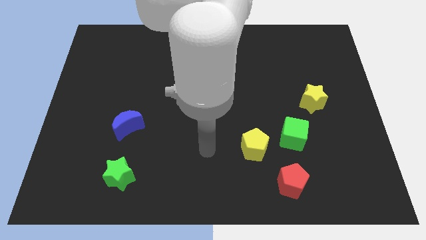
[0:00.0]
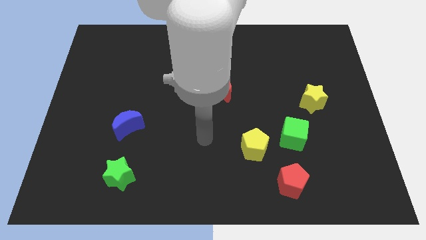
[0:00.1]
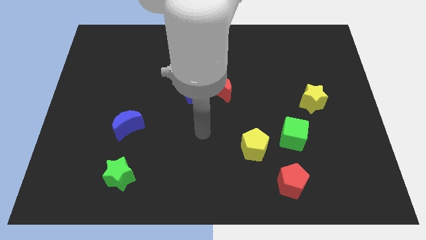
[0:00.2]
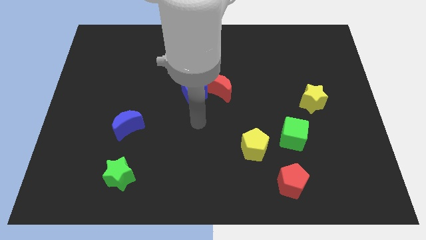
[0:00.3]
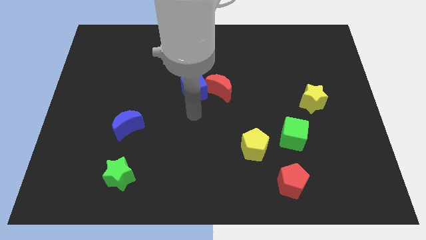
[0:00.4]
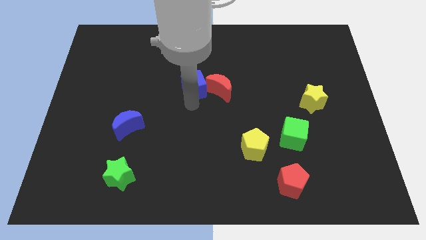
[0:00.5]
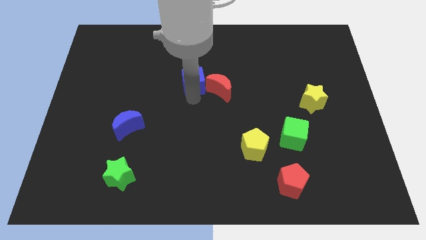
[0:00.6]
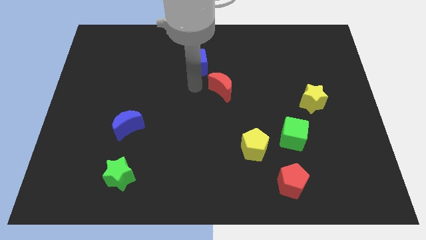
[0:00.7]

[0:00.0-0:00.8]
pull the red moon apart from the blue cube

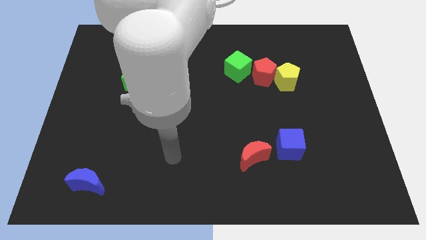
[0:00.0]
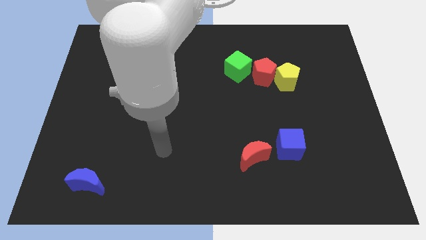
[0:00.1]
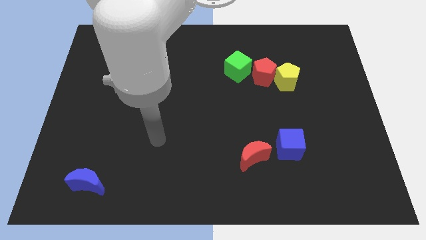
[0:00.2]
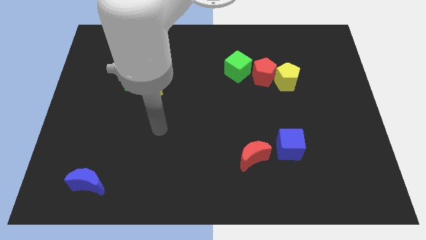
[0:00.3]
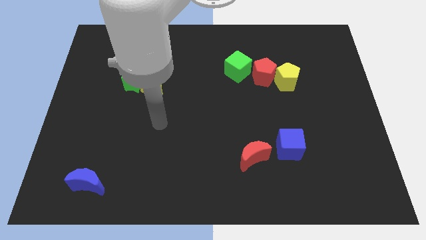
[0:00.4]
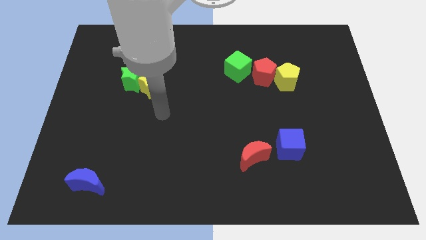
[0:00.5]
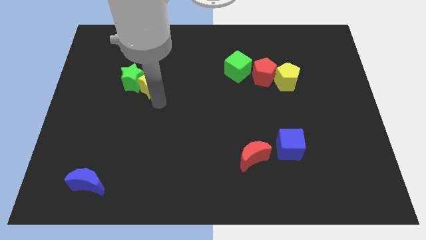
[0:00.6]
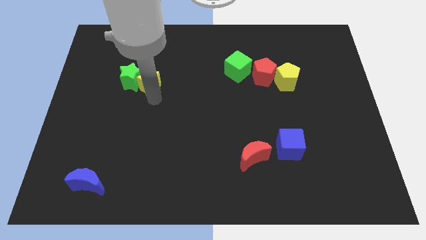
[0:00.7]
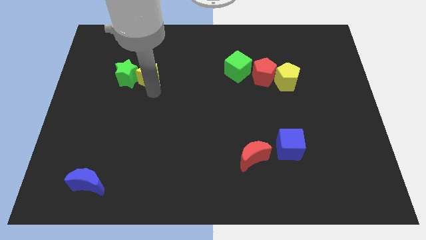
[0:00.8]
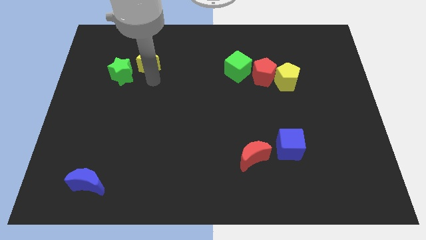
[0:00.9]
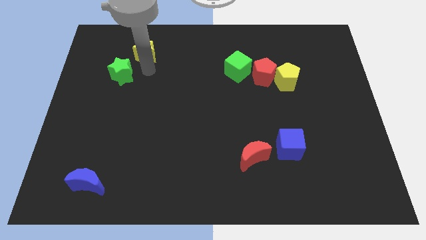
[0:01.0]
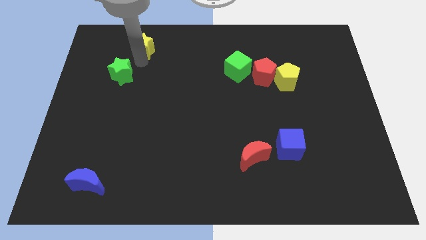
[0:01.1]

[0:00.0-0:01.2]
separate the green star from the yellow star

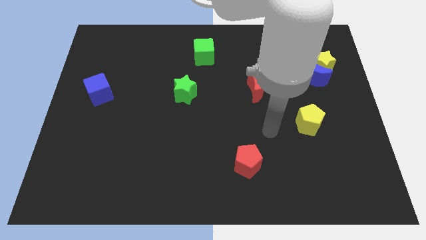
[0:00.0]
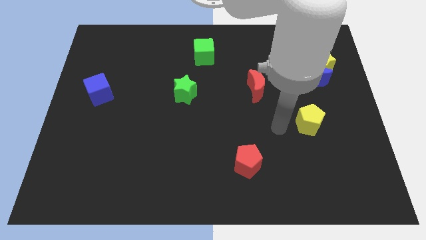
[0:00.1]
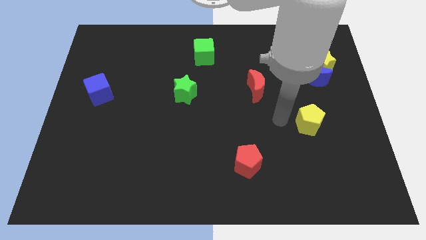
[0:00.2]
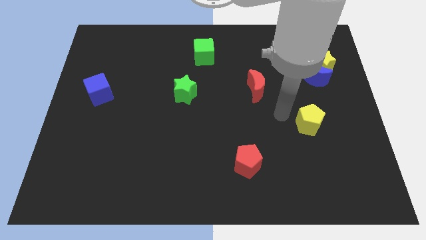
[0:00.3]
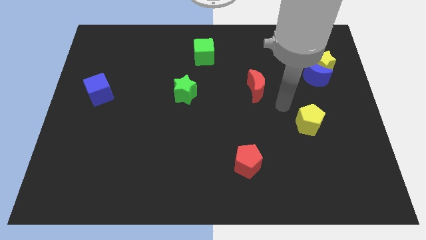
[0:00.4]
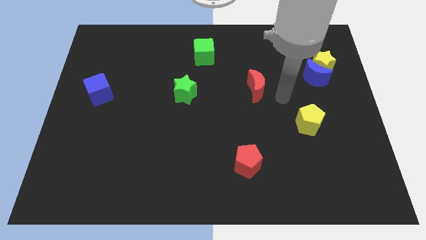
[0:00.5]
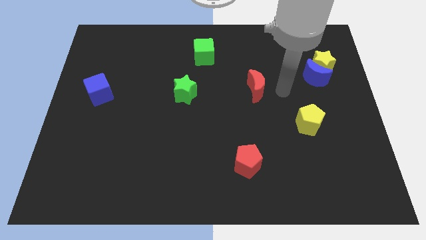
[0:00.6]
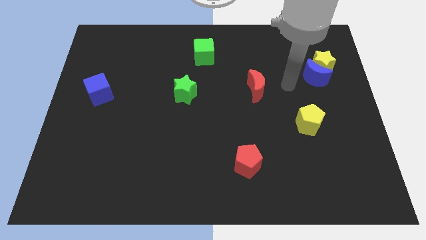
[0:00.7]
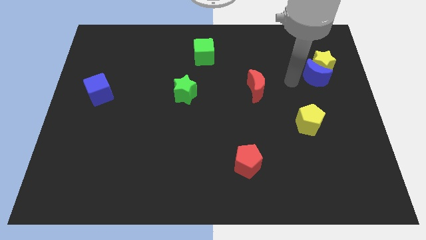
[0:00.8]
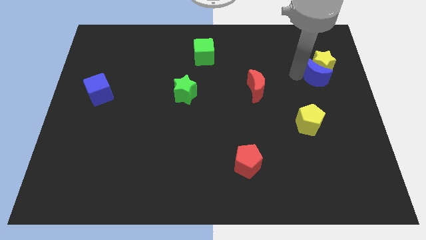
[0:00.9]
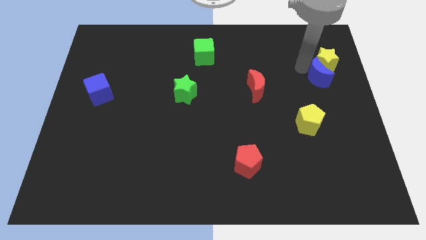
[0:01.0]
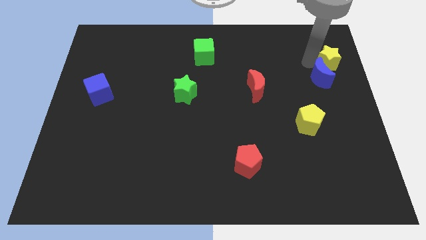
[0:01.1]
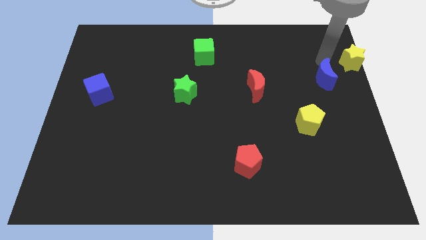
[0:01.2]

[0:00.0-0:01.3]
move the blue moon away from the yellow star

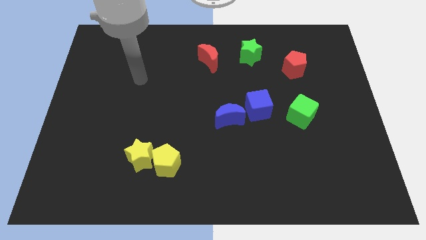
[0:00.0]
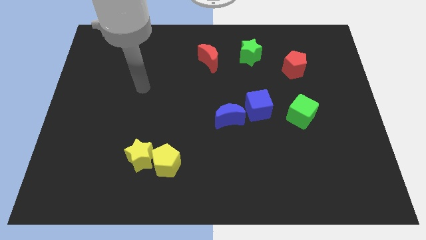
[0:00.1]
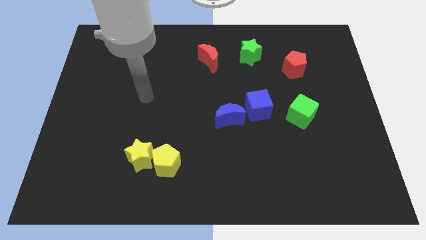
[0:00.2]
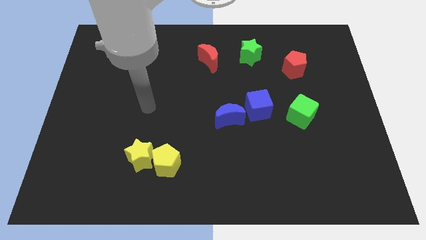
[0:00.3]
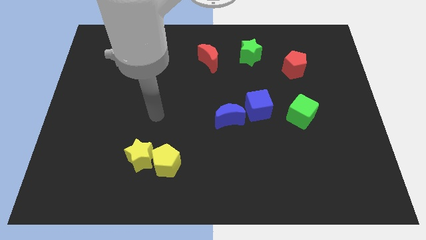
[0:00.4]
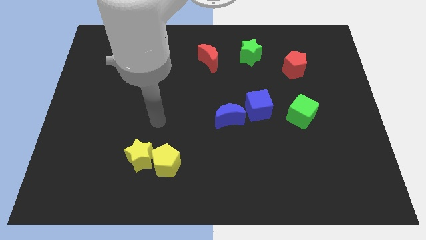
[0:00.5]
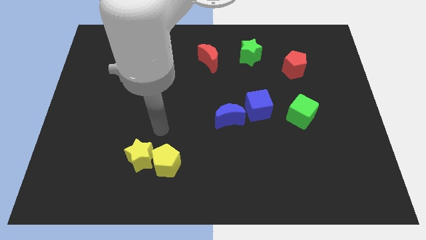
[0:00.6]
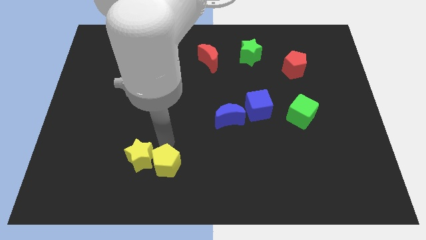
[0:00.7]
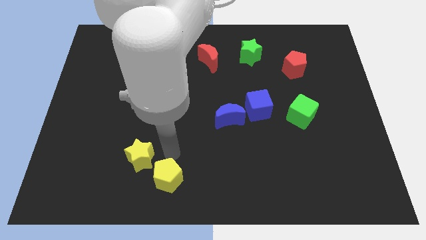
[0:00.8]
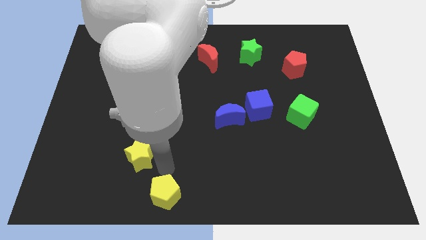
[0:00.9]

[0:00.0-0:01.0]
move the yellow star away from the yellow pentagon

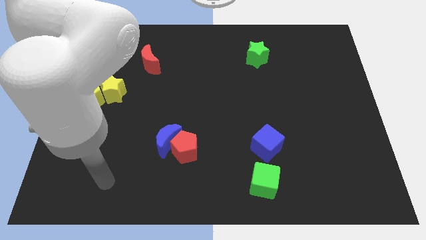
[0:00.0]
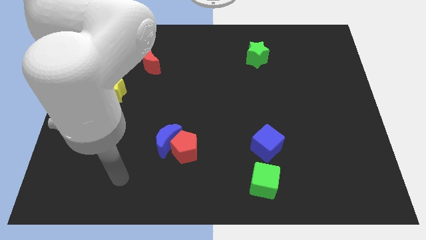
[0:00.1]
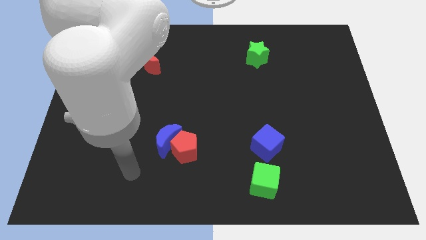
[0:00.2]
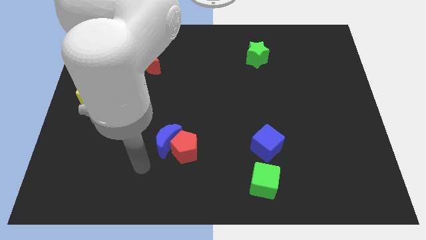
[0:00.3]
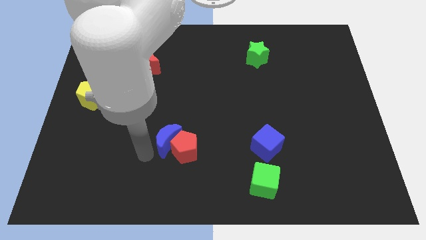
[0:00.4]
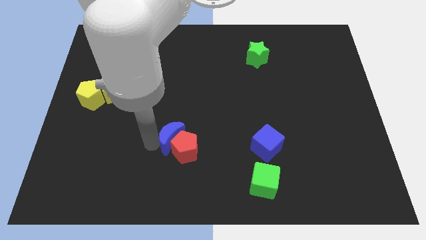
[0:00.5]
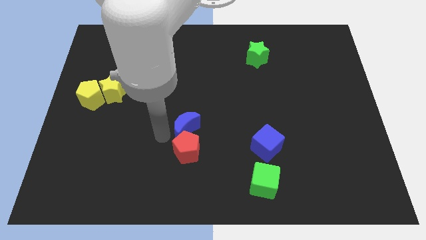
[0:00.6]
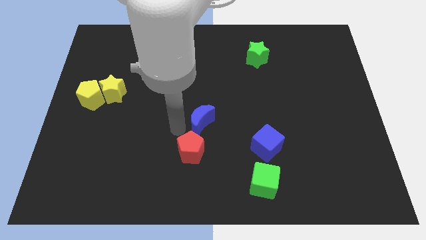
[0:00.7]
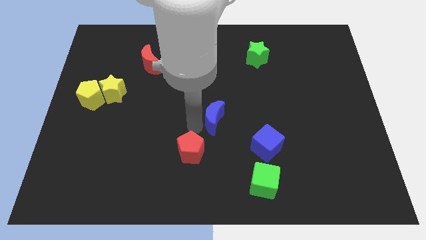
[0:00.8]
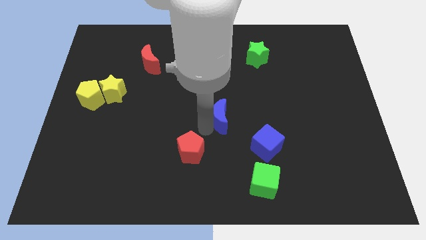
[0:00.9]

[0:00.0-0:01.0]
move the red pentagon away from the blue moon

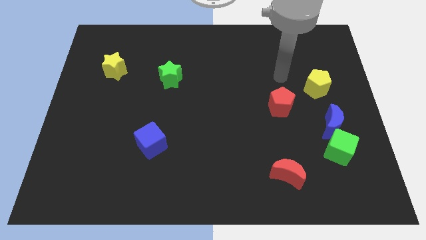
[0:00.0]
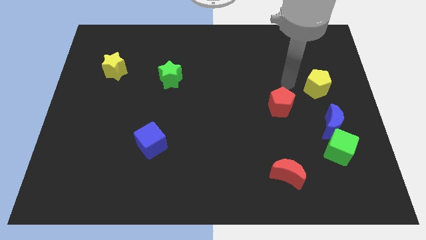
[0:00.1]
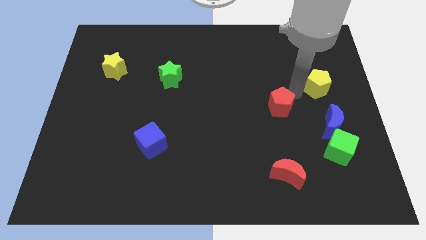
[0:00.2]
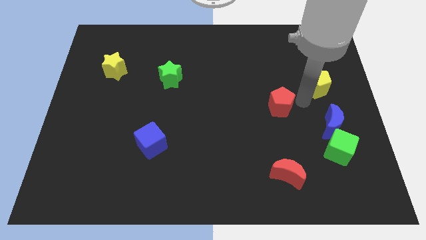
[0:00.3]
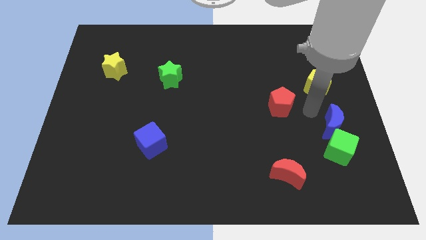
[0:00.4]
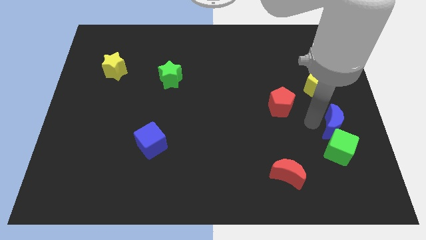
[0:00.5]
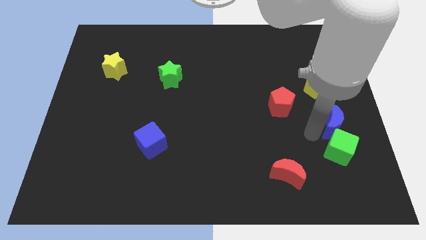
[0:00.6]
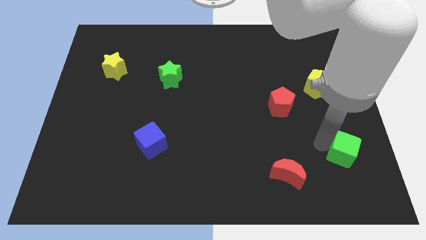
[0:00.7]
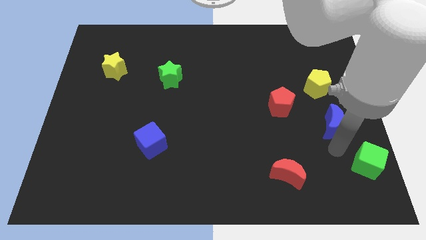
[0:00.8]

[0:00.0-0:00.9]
pull the blue moon apart from the green cube

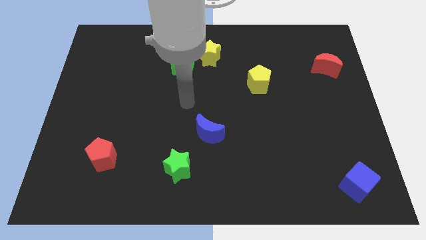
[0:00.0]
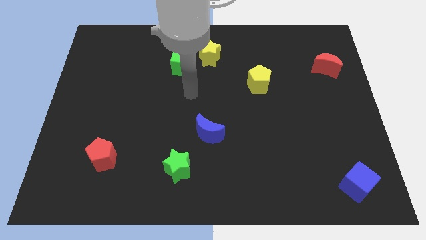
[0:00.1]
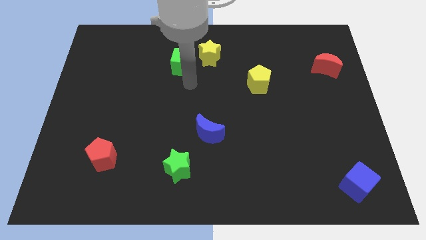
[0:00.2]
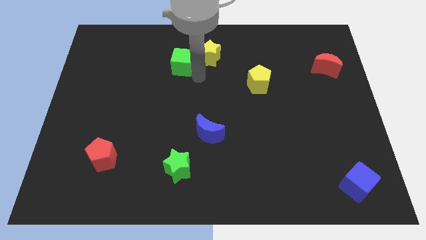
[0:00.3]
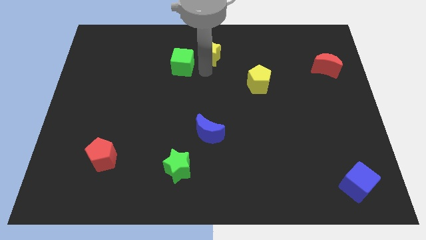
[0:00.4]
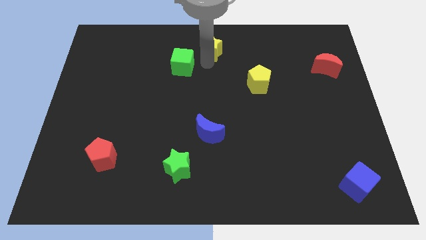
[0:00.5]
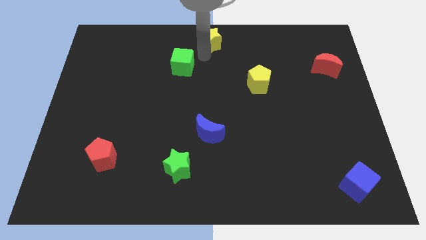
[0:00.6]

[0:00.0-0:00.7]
separate the green cube from the yellow star

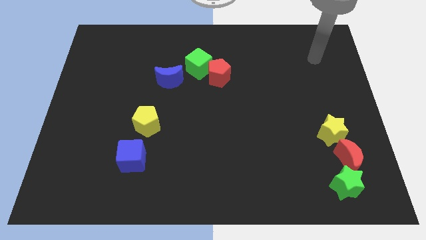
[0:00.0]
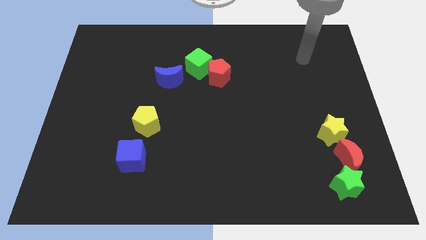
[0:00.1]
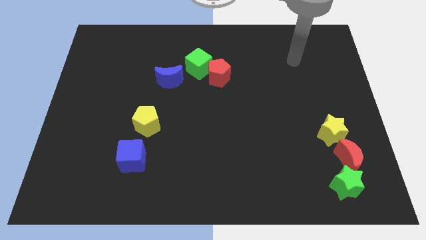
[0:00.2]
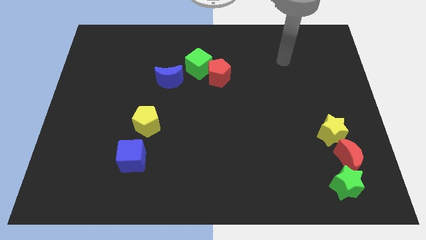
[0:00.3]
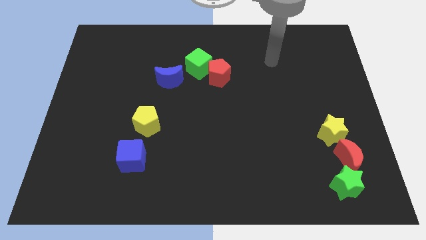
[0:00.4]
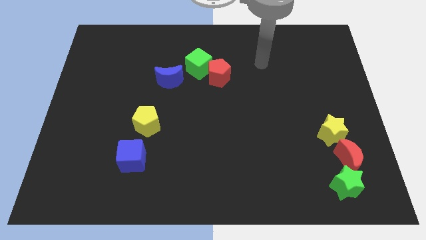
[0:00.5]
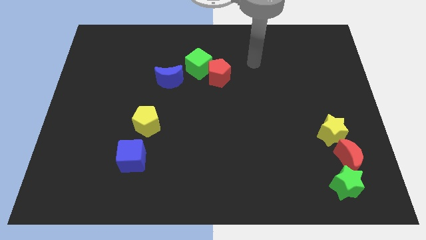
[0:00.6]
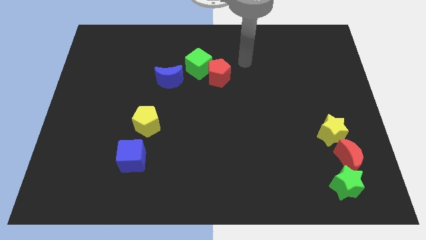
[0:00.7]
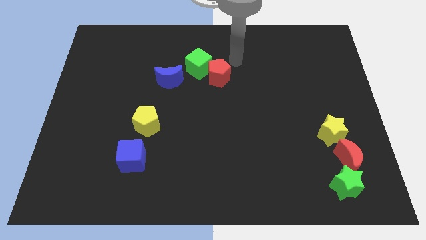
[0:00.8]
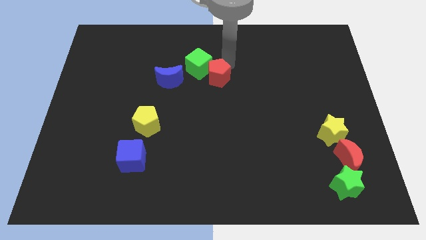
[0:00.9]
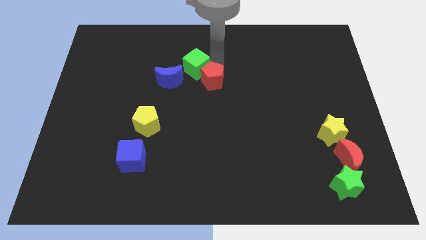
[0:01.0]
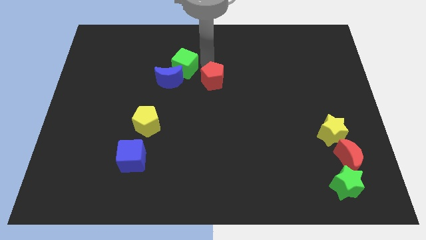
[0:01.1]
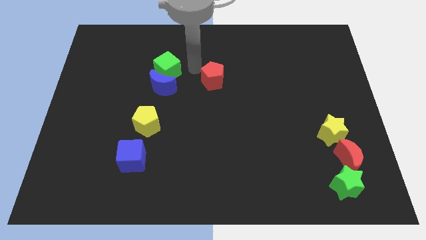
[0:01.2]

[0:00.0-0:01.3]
move the red pentagon away from the green cube

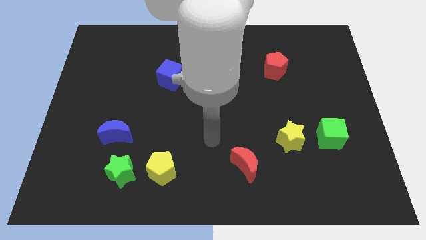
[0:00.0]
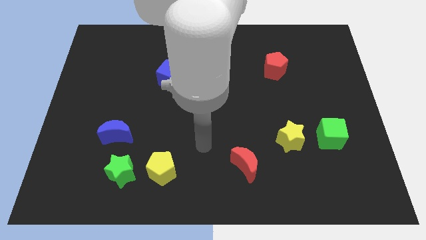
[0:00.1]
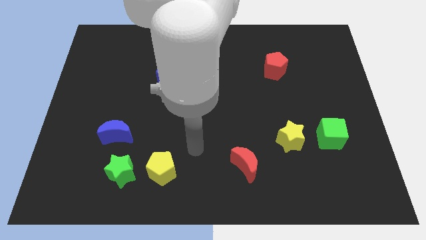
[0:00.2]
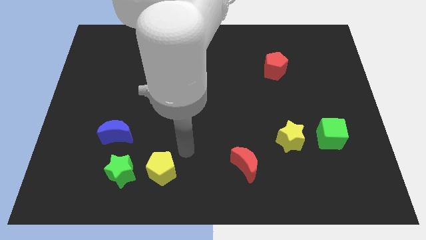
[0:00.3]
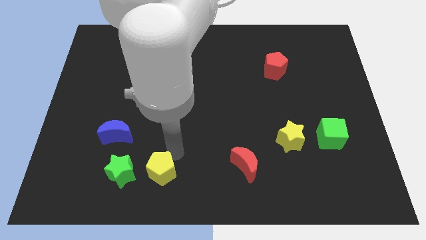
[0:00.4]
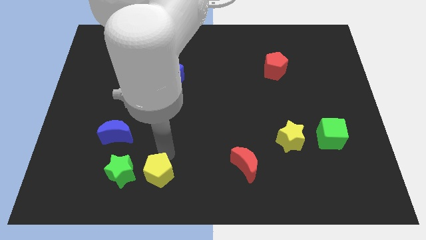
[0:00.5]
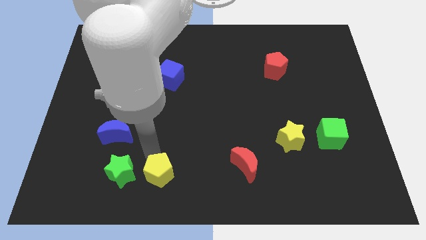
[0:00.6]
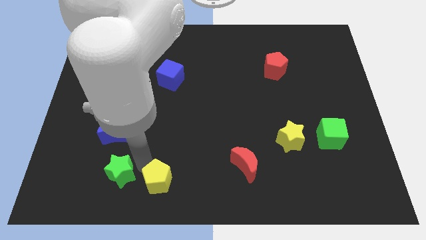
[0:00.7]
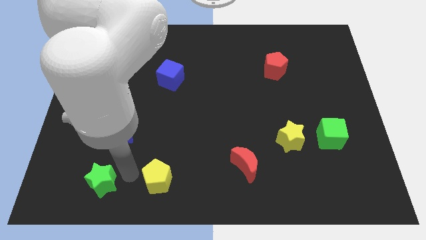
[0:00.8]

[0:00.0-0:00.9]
move the yellow pentagon away from the green star
